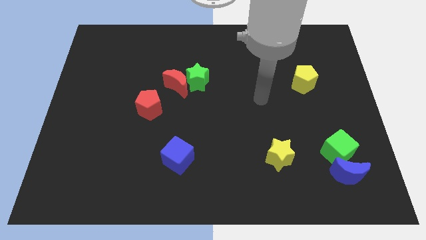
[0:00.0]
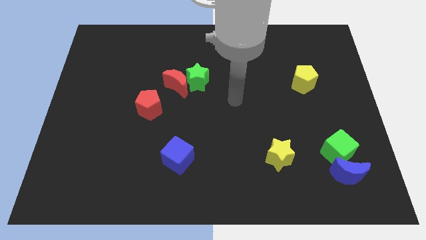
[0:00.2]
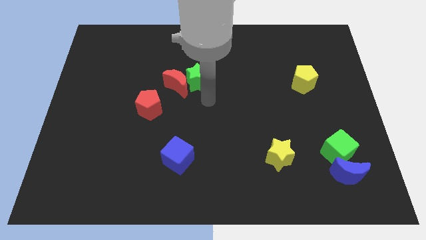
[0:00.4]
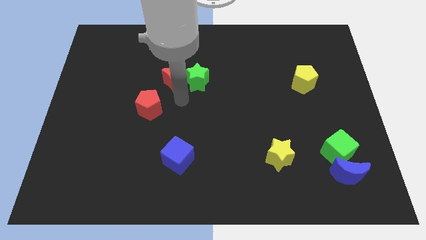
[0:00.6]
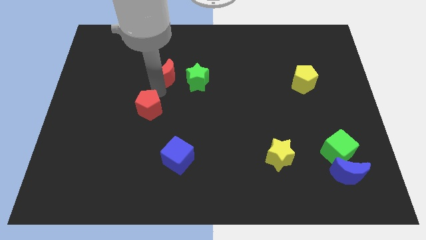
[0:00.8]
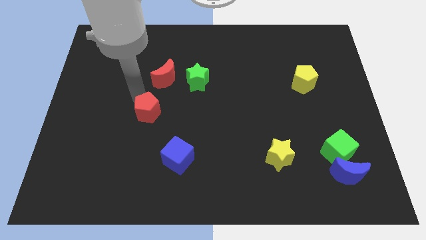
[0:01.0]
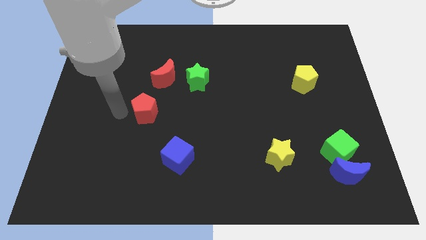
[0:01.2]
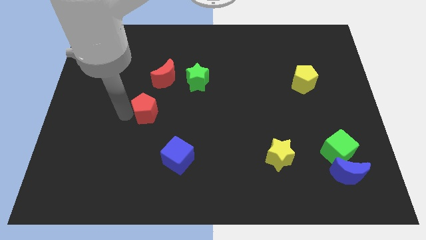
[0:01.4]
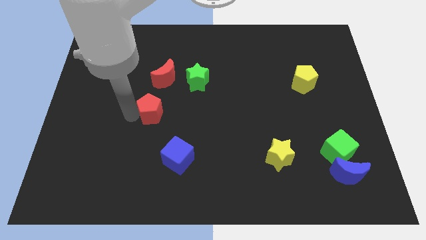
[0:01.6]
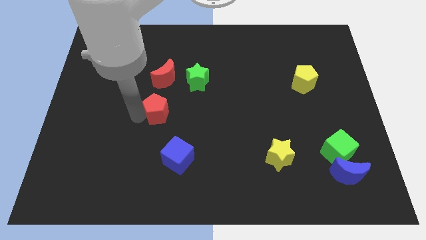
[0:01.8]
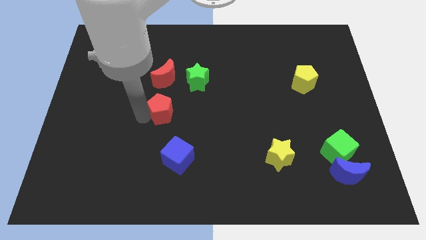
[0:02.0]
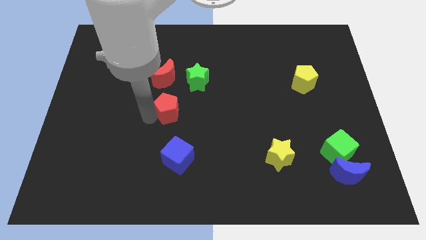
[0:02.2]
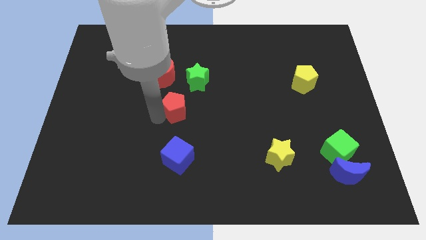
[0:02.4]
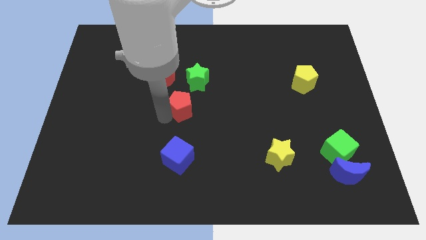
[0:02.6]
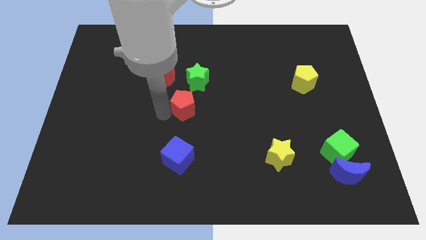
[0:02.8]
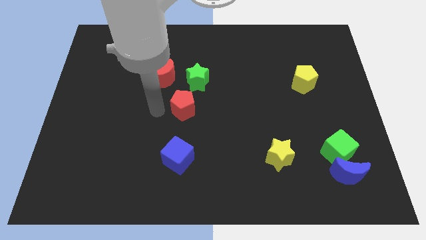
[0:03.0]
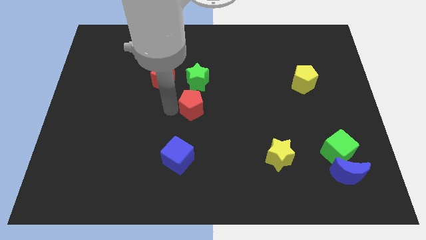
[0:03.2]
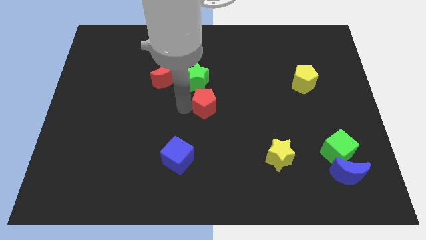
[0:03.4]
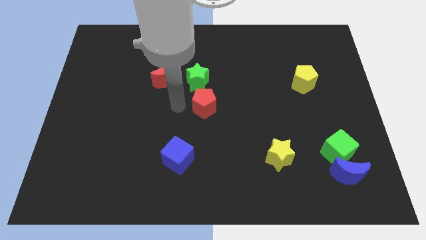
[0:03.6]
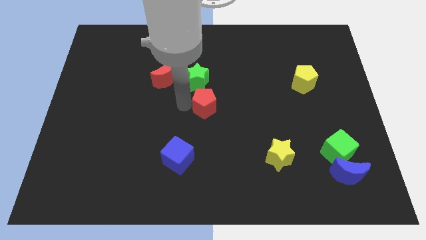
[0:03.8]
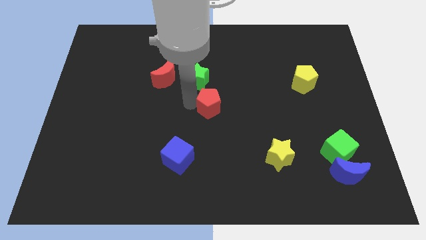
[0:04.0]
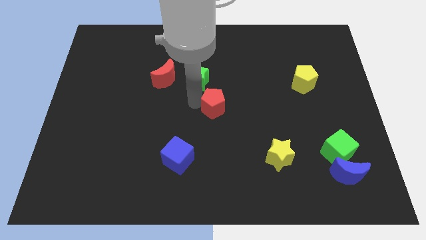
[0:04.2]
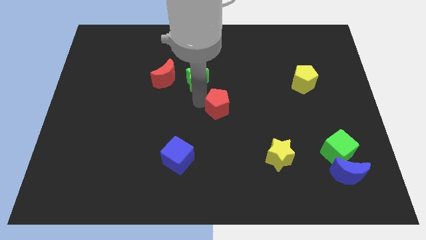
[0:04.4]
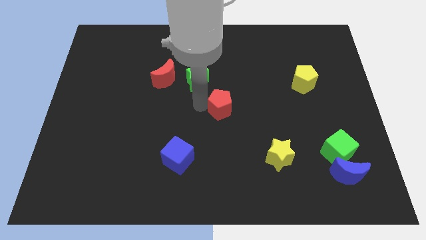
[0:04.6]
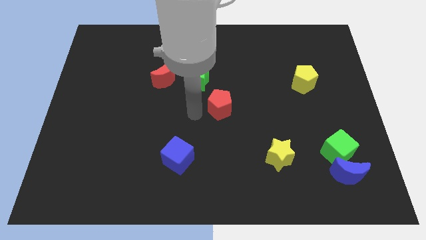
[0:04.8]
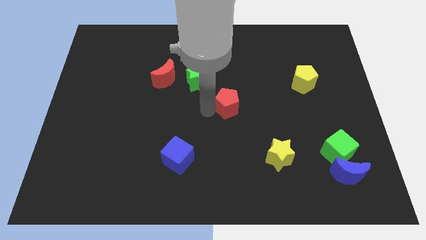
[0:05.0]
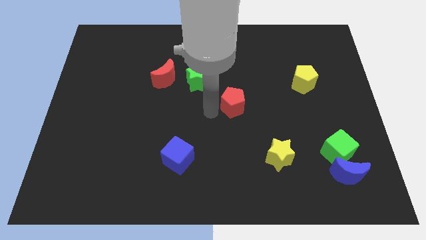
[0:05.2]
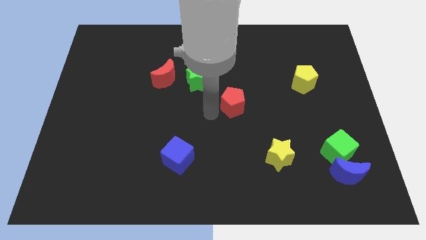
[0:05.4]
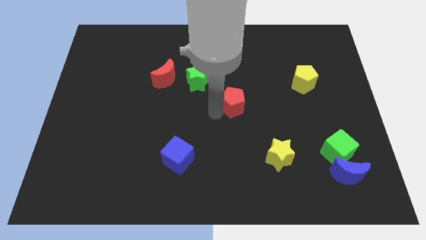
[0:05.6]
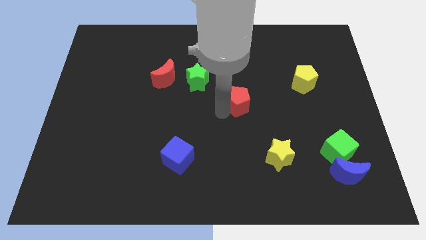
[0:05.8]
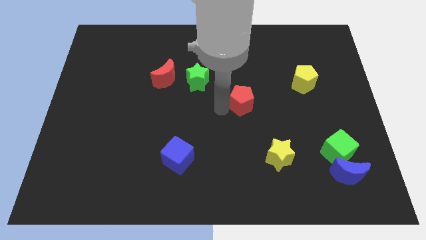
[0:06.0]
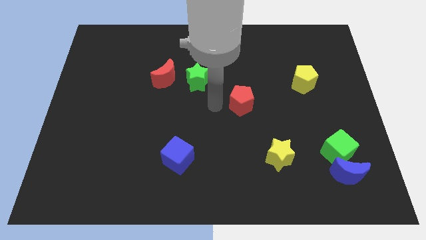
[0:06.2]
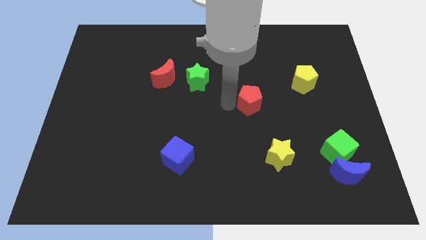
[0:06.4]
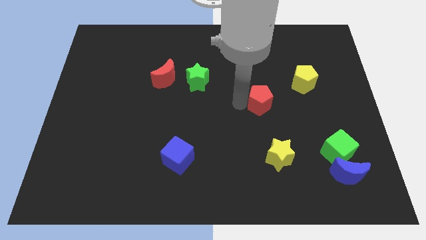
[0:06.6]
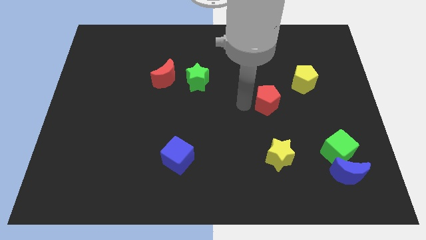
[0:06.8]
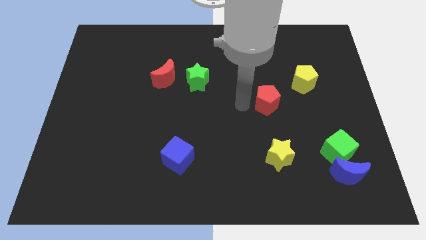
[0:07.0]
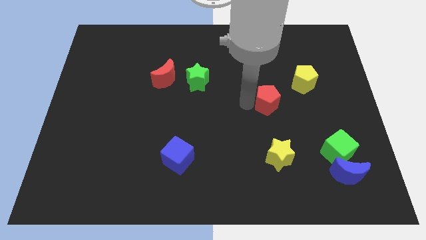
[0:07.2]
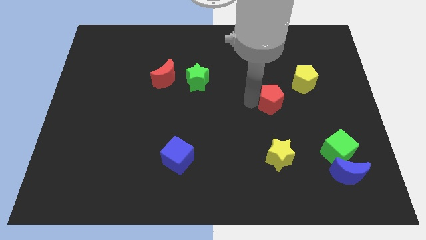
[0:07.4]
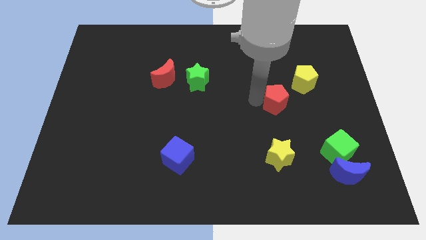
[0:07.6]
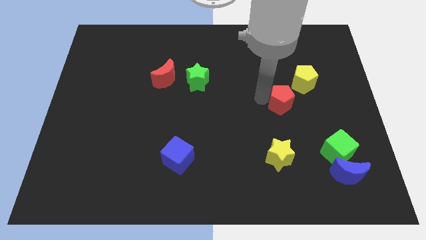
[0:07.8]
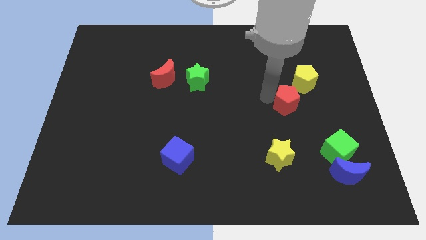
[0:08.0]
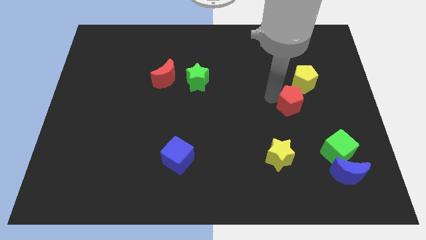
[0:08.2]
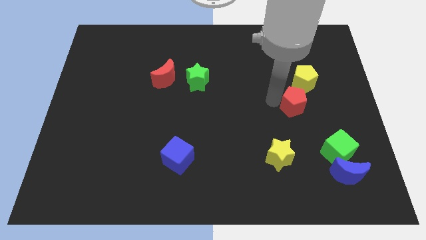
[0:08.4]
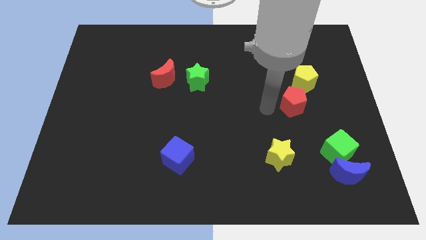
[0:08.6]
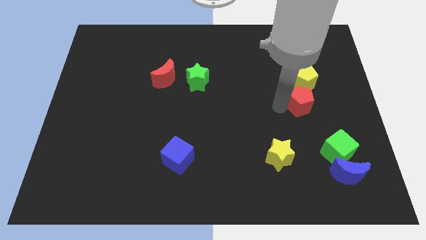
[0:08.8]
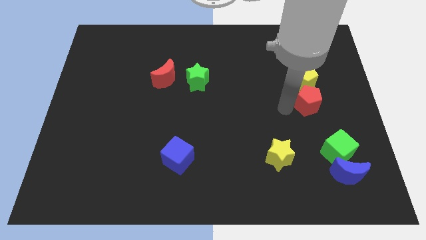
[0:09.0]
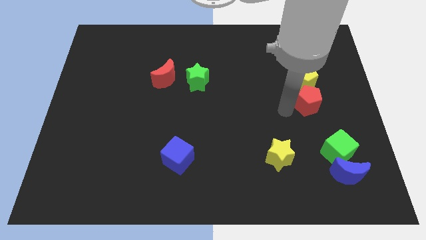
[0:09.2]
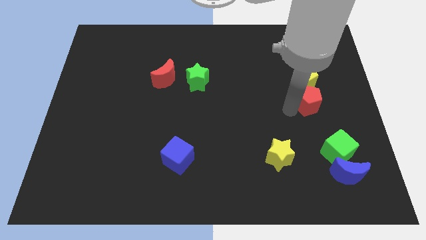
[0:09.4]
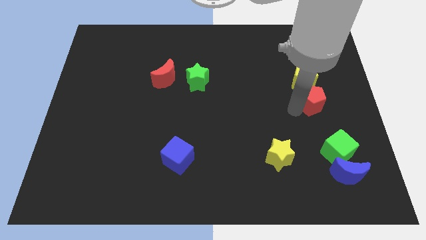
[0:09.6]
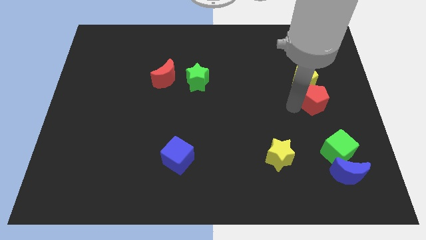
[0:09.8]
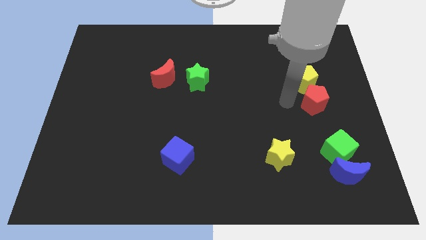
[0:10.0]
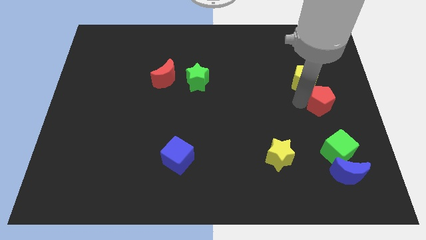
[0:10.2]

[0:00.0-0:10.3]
move the red pentagon to the center right

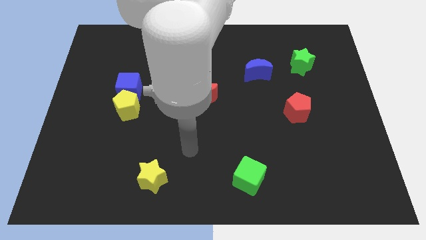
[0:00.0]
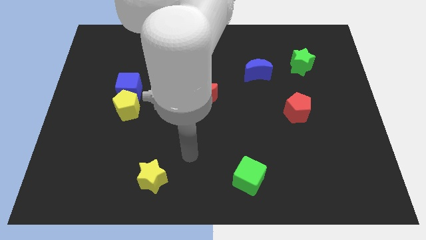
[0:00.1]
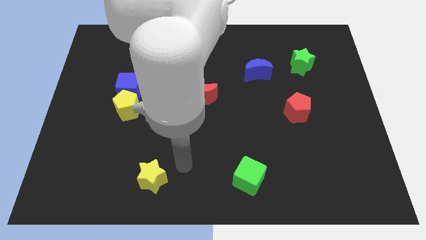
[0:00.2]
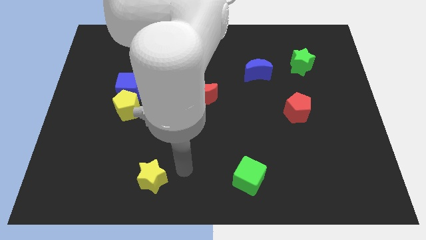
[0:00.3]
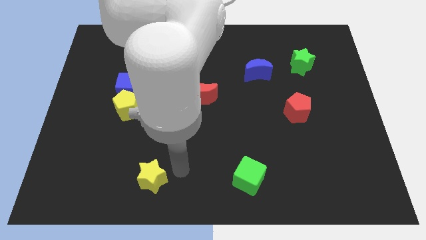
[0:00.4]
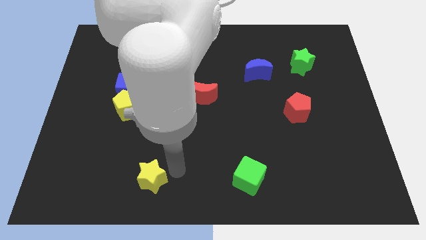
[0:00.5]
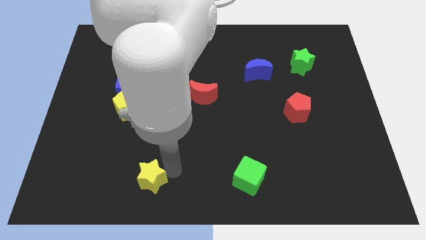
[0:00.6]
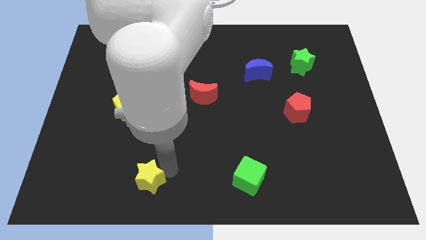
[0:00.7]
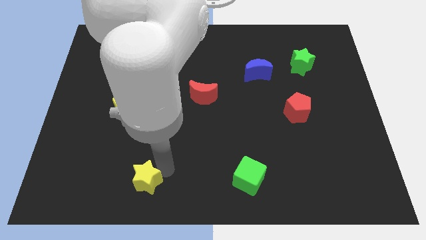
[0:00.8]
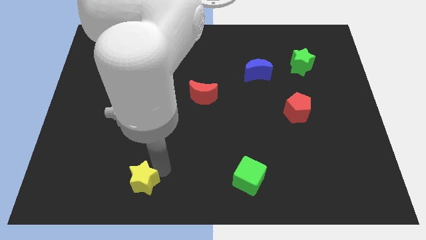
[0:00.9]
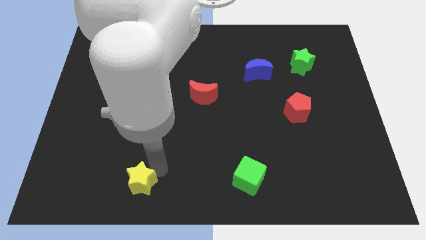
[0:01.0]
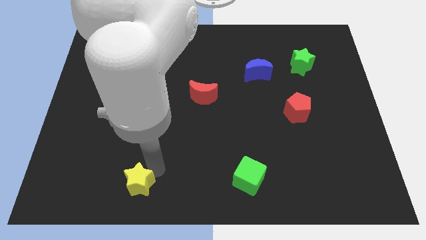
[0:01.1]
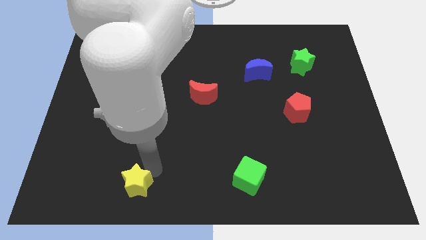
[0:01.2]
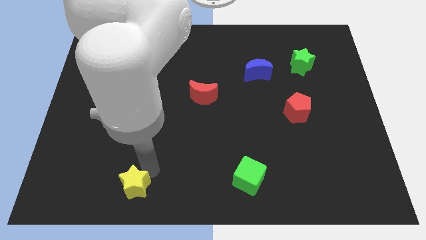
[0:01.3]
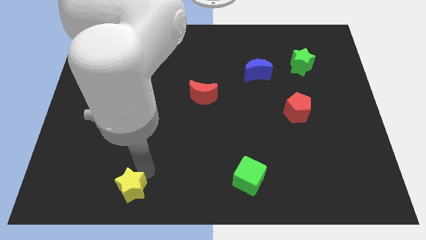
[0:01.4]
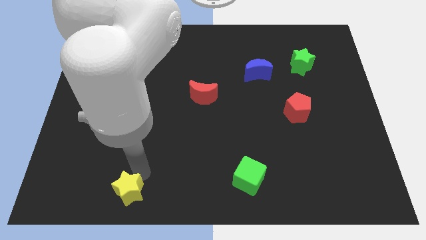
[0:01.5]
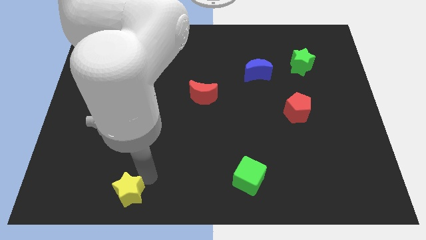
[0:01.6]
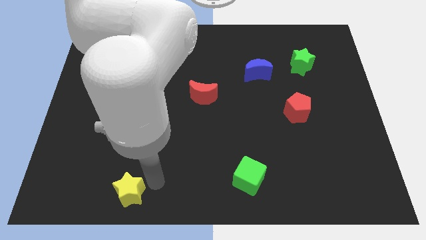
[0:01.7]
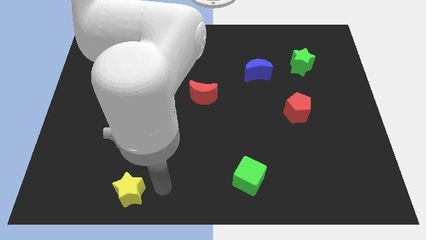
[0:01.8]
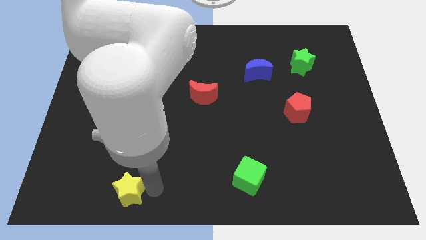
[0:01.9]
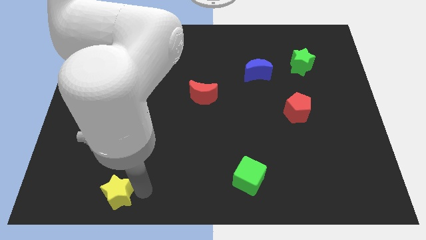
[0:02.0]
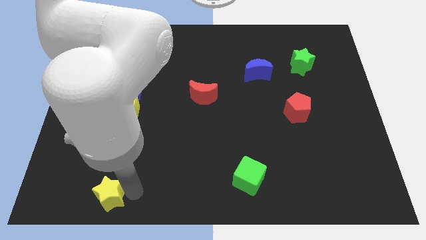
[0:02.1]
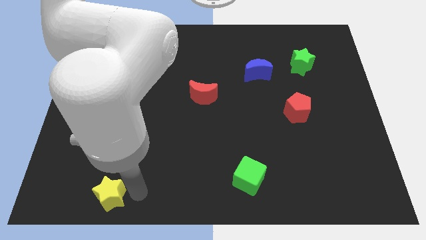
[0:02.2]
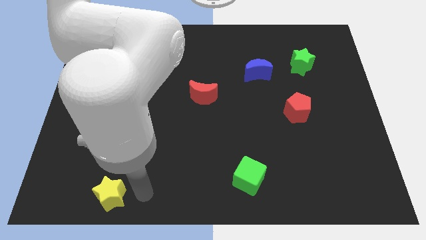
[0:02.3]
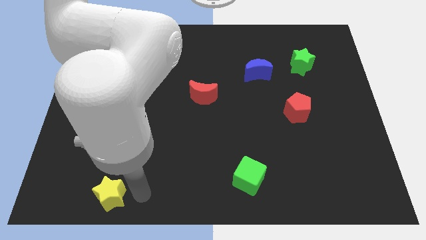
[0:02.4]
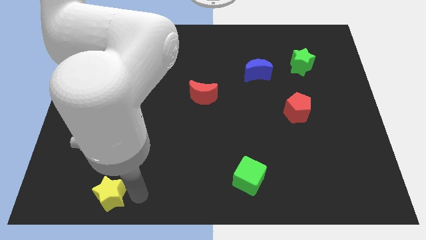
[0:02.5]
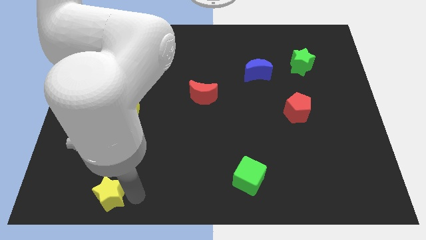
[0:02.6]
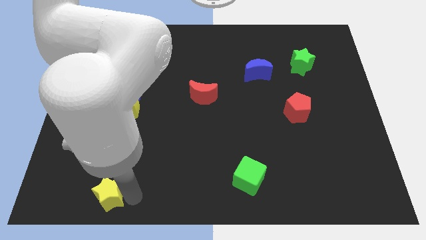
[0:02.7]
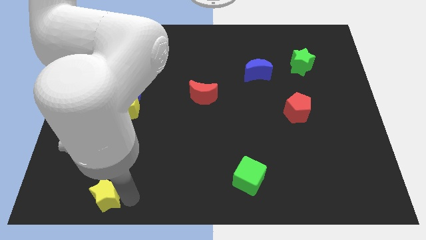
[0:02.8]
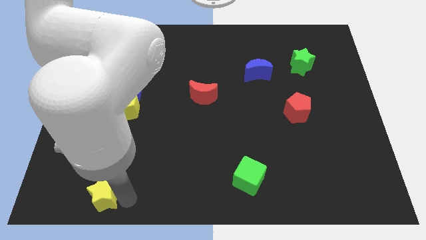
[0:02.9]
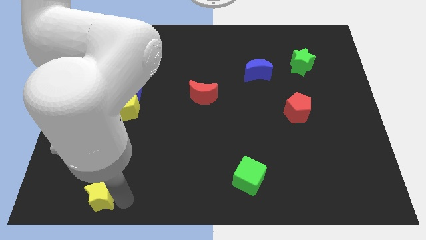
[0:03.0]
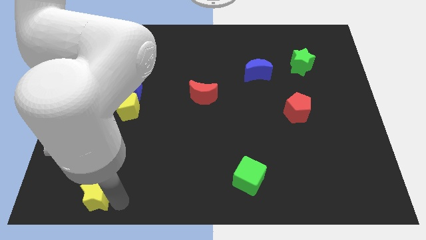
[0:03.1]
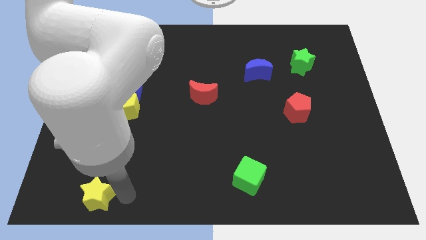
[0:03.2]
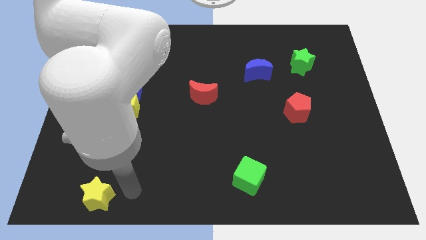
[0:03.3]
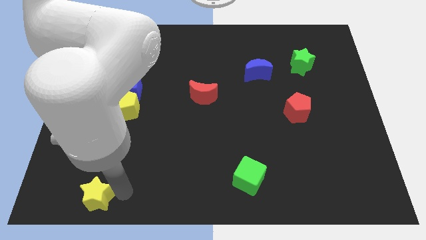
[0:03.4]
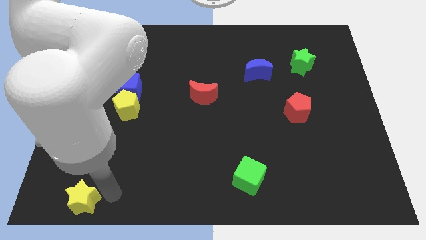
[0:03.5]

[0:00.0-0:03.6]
push the yellow star to the bottom left
